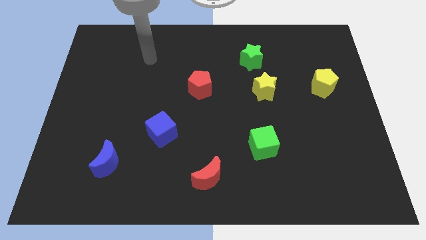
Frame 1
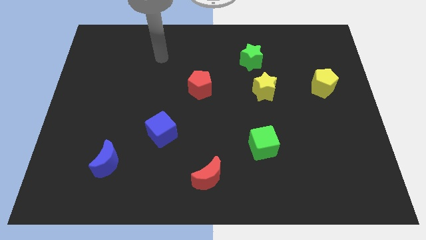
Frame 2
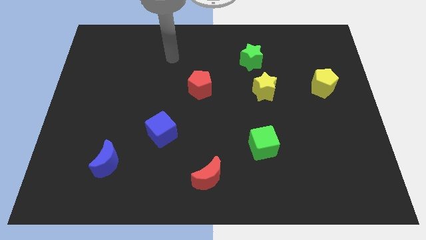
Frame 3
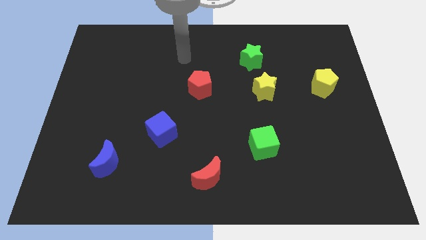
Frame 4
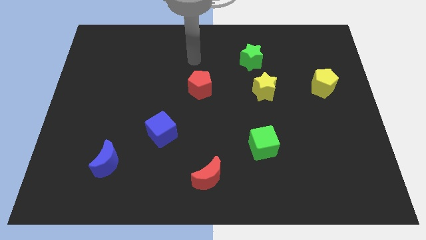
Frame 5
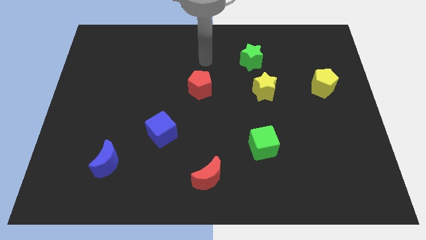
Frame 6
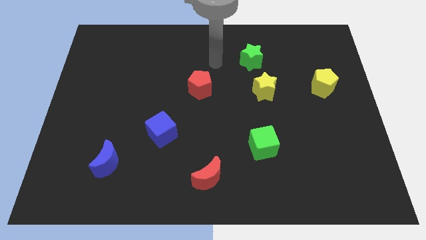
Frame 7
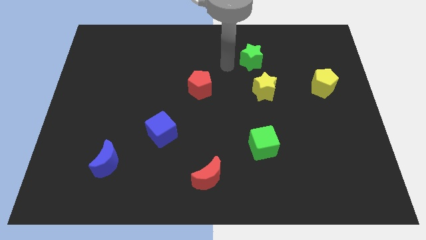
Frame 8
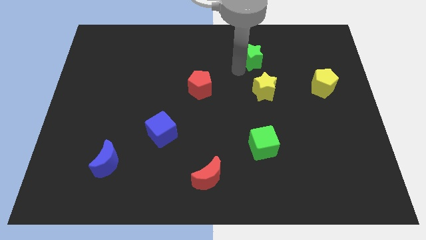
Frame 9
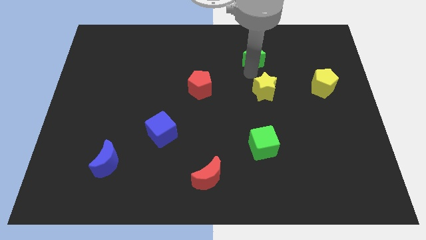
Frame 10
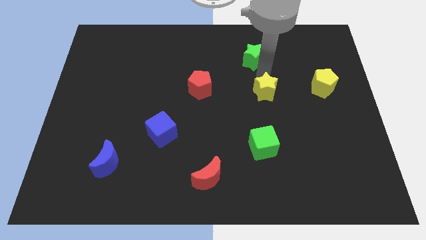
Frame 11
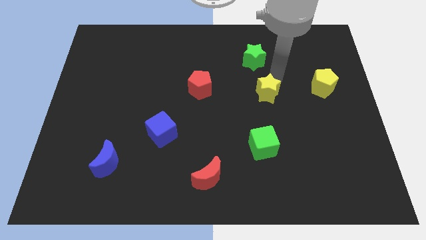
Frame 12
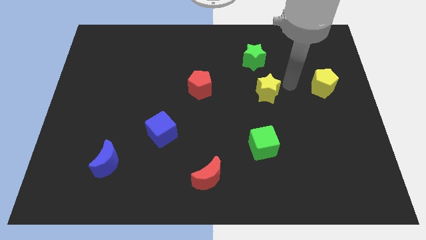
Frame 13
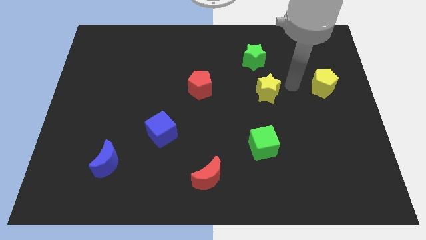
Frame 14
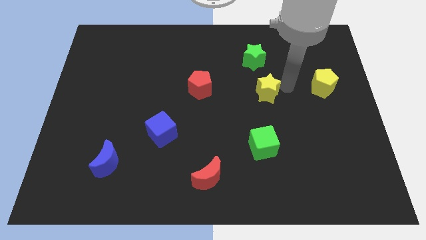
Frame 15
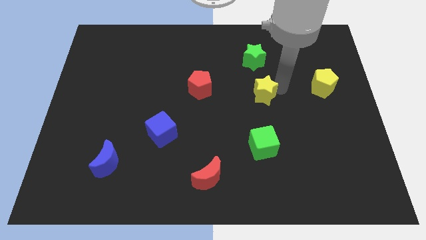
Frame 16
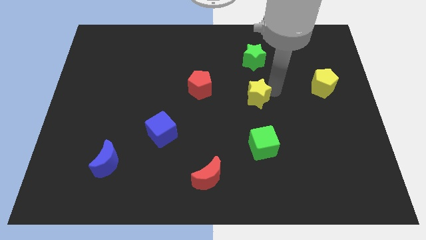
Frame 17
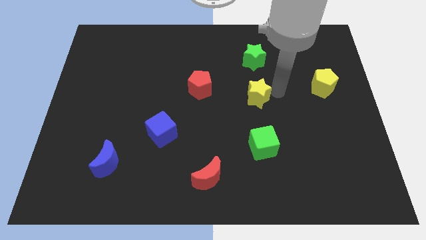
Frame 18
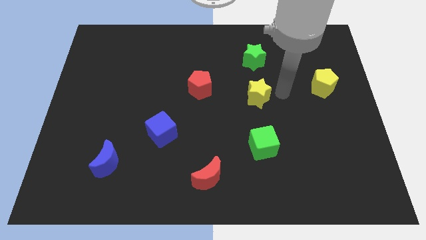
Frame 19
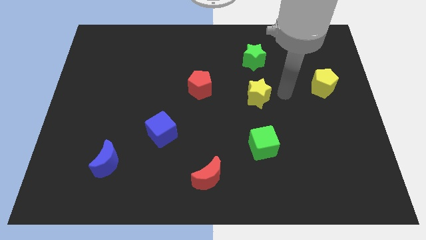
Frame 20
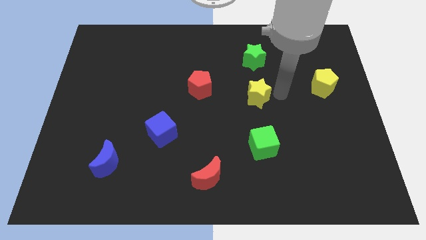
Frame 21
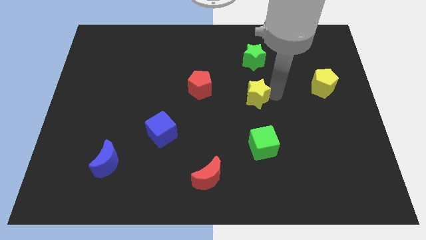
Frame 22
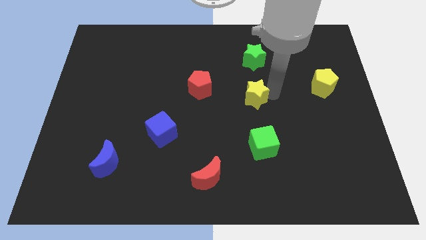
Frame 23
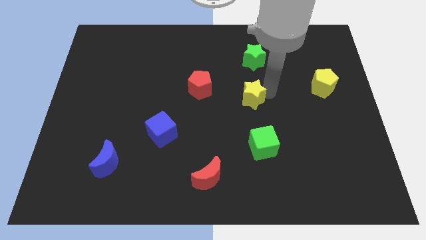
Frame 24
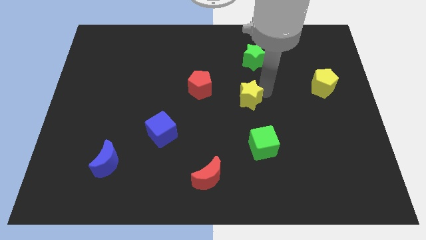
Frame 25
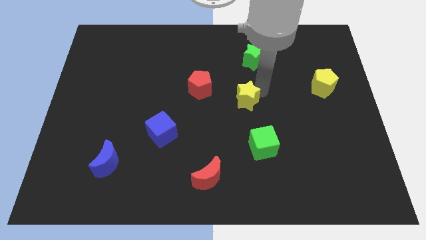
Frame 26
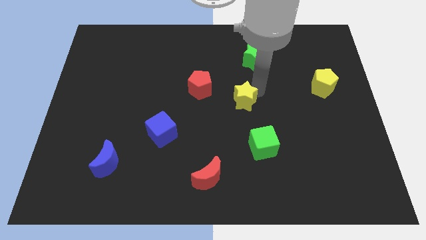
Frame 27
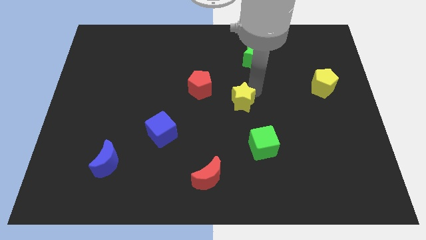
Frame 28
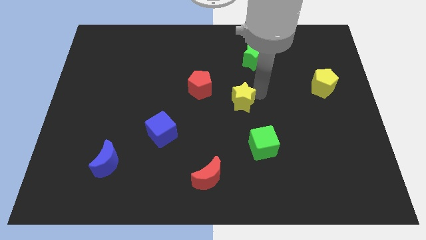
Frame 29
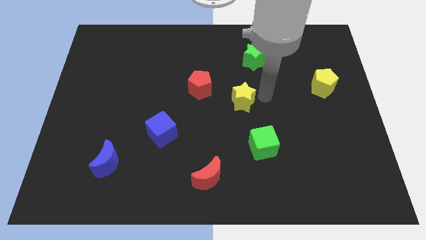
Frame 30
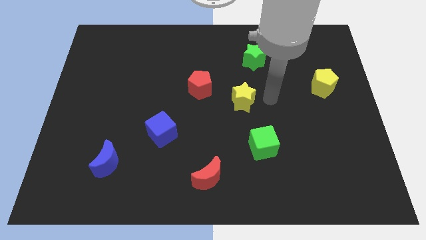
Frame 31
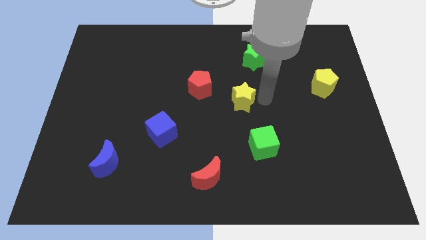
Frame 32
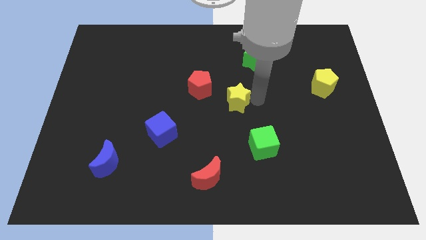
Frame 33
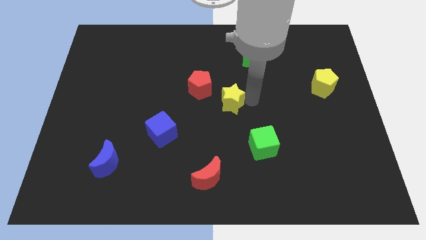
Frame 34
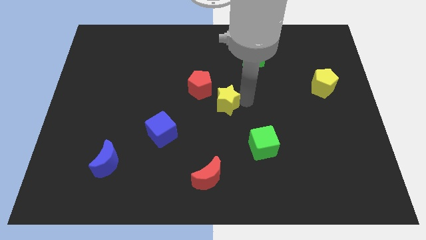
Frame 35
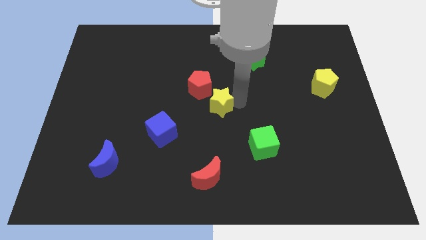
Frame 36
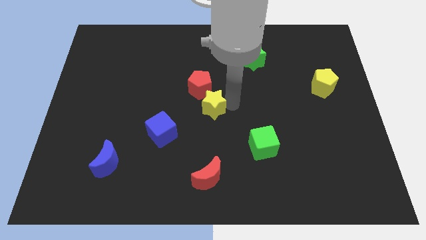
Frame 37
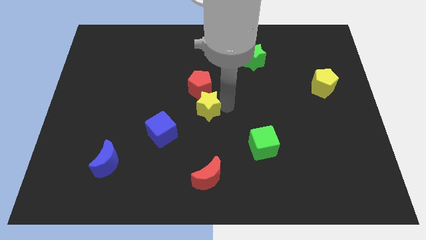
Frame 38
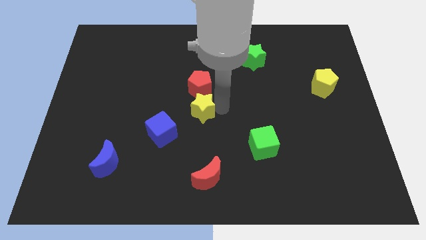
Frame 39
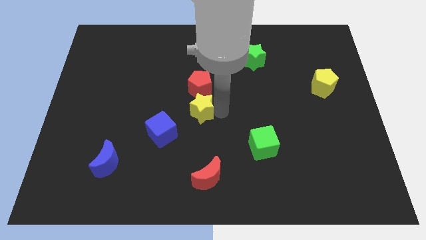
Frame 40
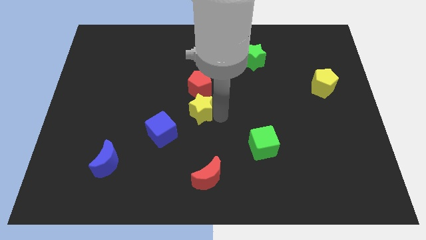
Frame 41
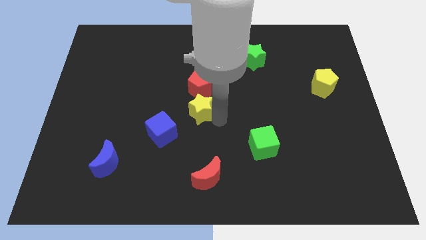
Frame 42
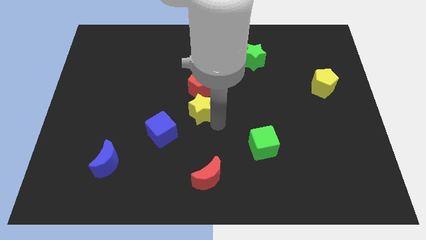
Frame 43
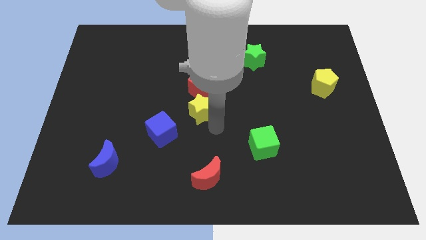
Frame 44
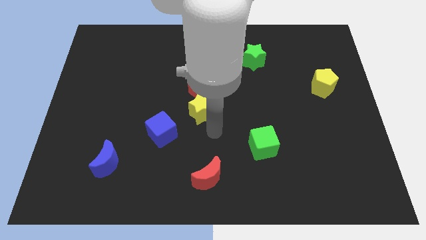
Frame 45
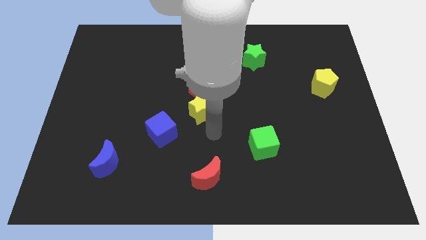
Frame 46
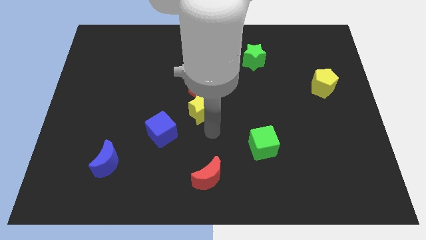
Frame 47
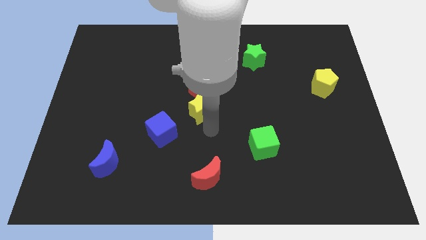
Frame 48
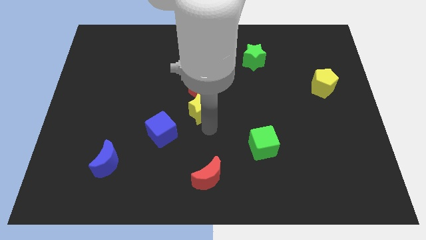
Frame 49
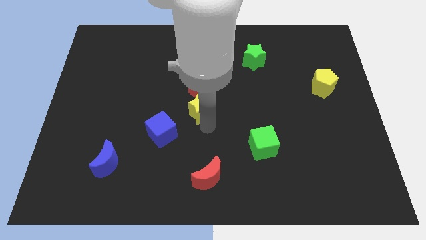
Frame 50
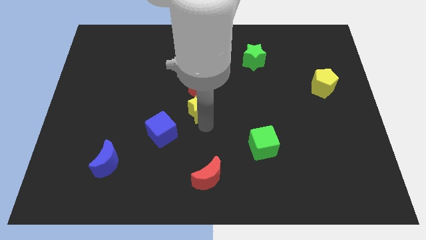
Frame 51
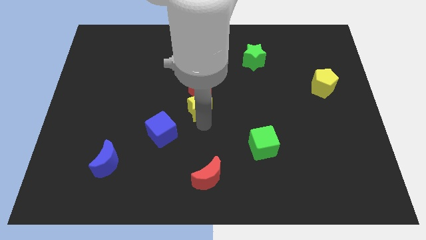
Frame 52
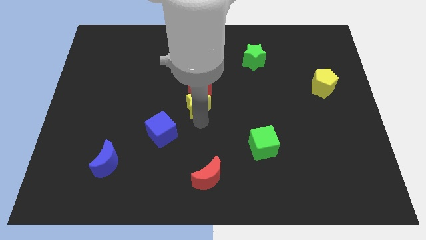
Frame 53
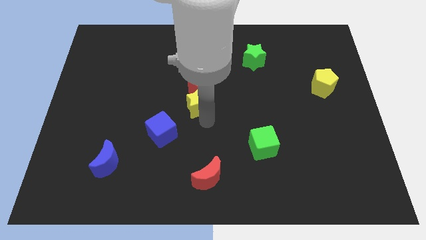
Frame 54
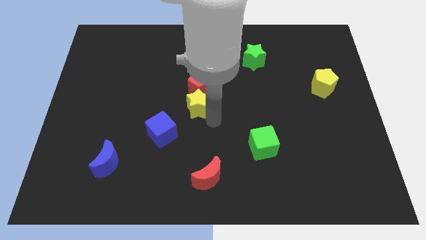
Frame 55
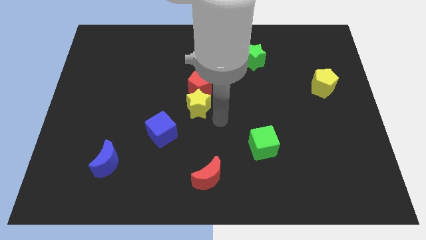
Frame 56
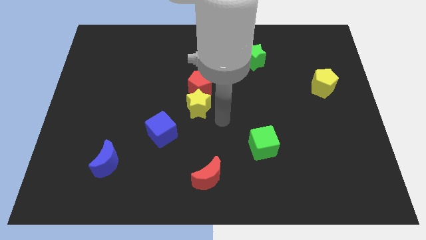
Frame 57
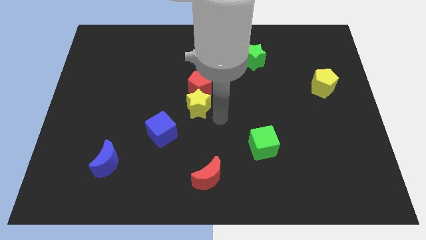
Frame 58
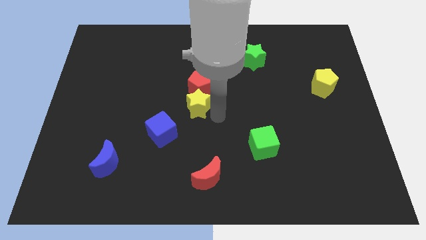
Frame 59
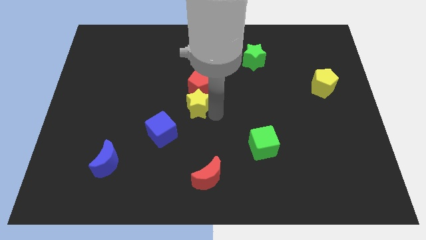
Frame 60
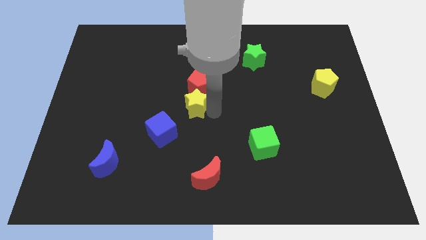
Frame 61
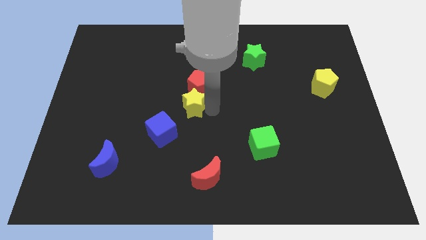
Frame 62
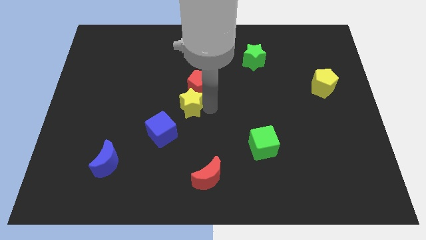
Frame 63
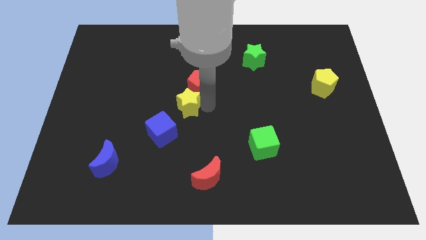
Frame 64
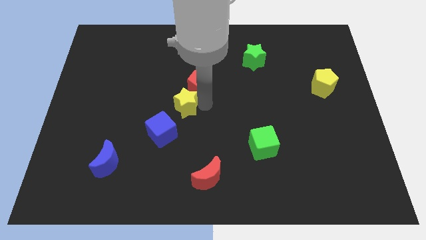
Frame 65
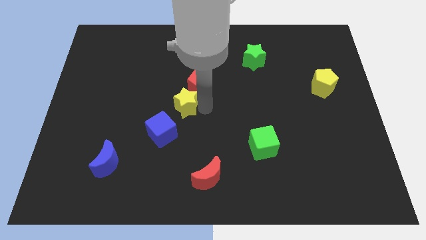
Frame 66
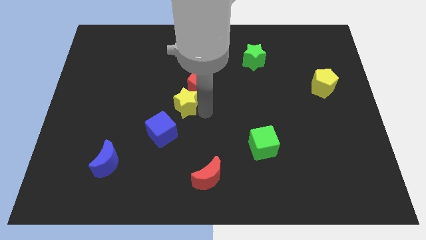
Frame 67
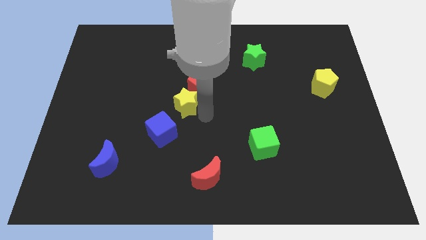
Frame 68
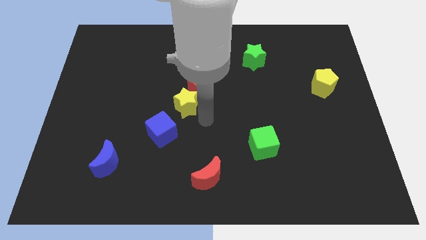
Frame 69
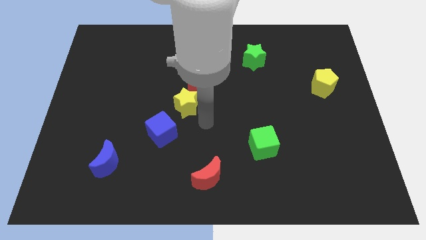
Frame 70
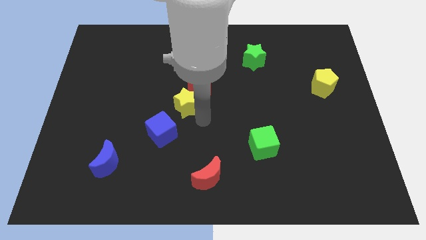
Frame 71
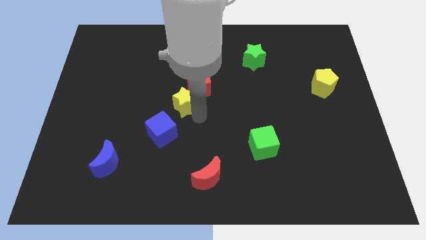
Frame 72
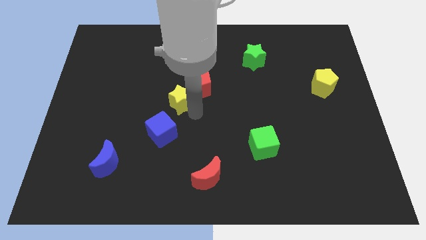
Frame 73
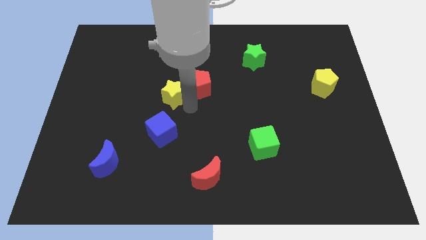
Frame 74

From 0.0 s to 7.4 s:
slide the yellow star to the left

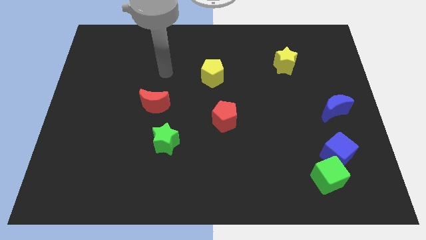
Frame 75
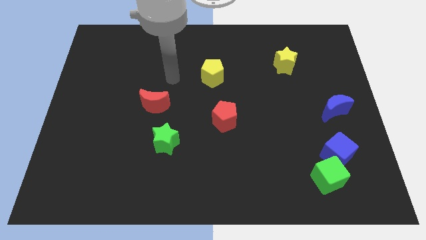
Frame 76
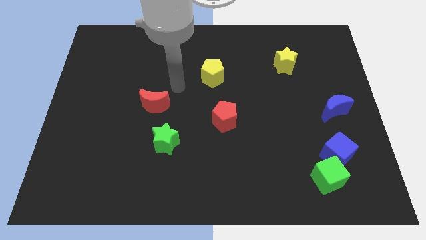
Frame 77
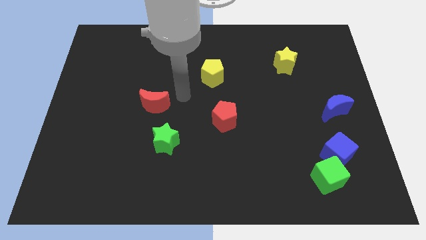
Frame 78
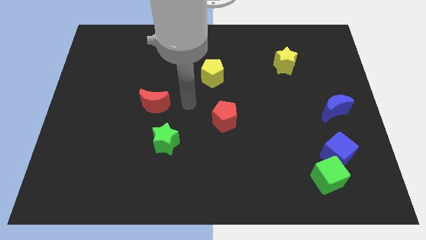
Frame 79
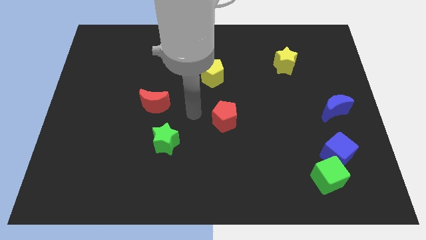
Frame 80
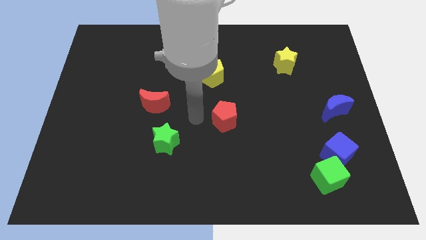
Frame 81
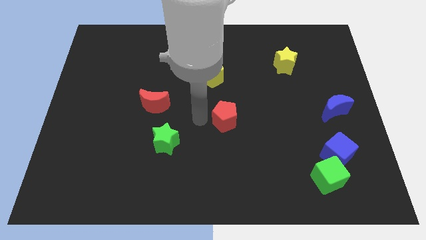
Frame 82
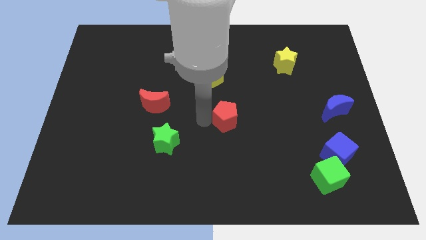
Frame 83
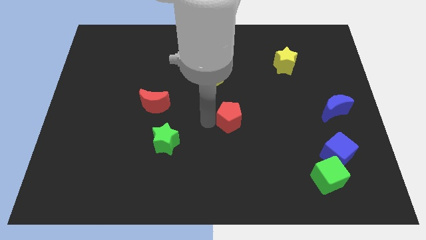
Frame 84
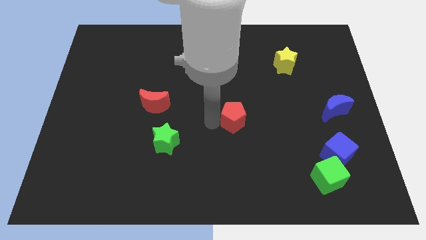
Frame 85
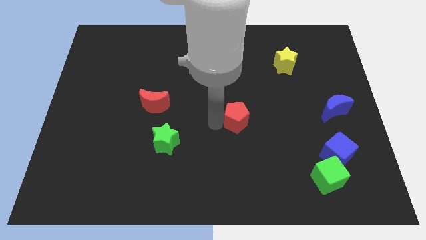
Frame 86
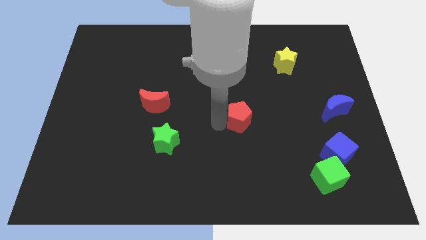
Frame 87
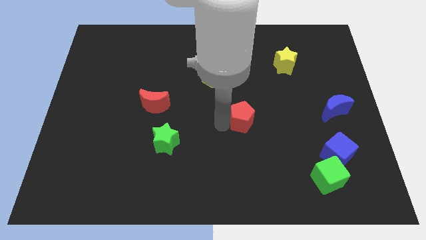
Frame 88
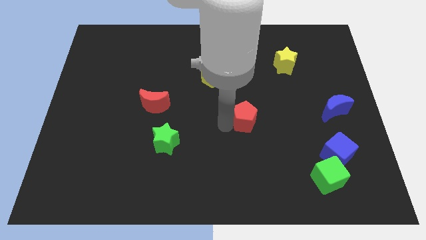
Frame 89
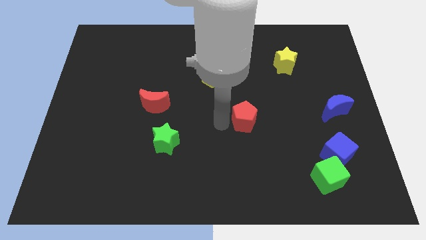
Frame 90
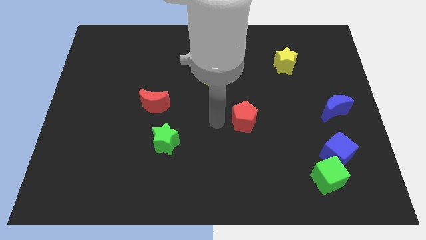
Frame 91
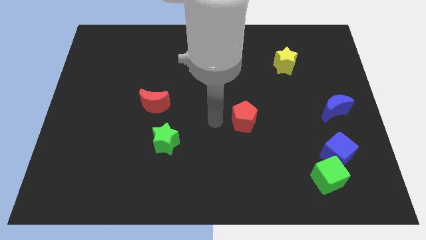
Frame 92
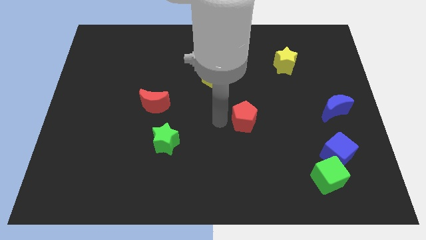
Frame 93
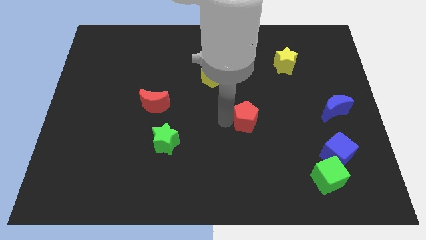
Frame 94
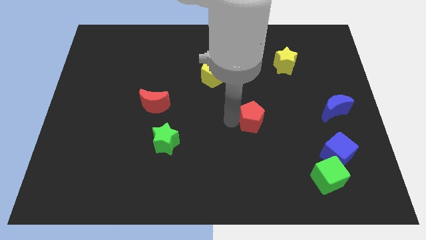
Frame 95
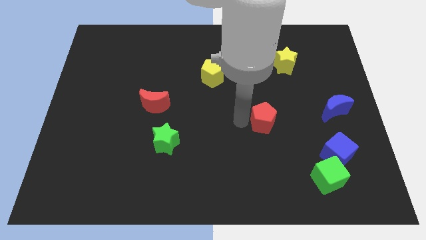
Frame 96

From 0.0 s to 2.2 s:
slightly slide the red pentagon to the right
